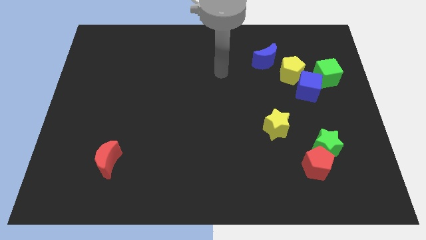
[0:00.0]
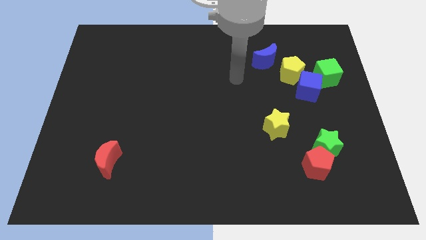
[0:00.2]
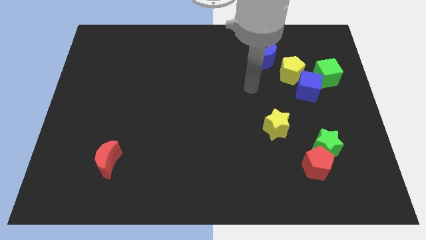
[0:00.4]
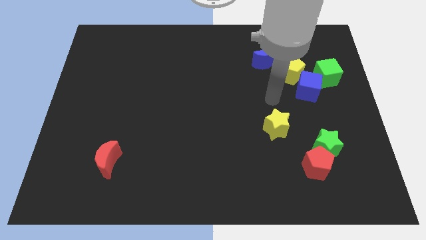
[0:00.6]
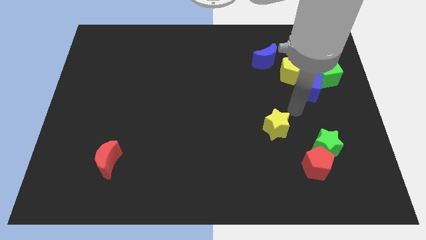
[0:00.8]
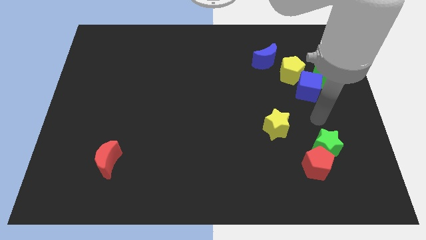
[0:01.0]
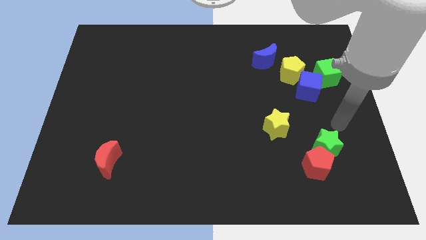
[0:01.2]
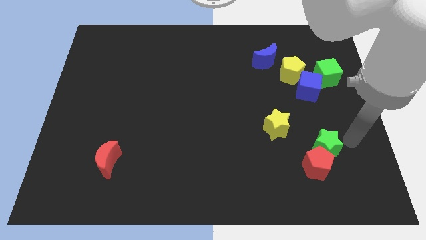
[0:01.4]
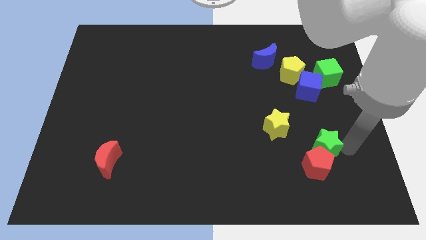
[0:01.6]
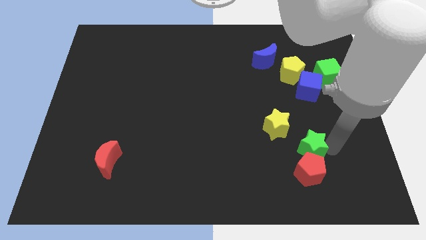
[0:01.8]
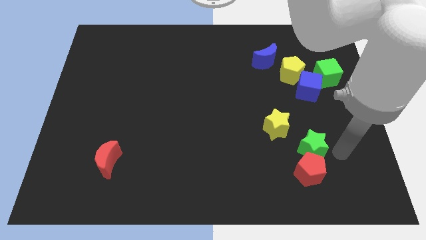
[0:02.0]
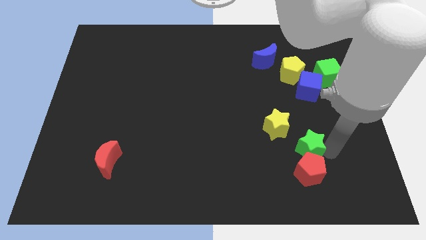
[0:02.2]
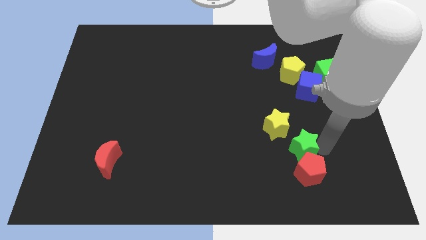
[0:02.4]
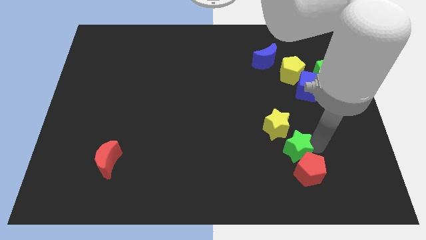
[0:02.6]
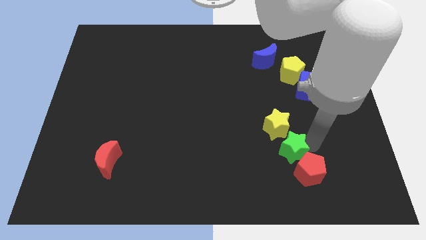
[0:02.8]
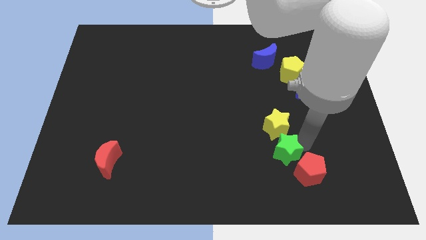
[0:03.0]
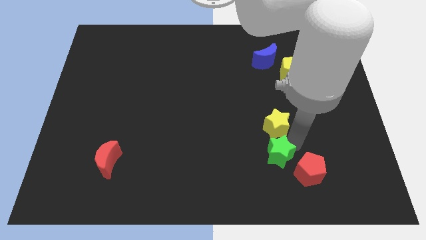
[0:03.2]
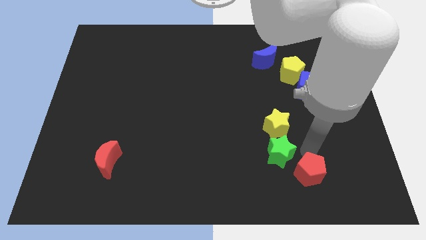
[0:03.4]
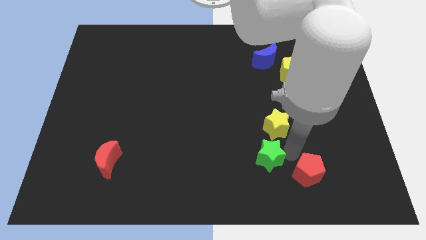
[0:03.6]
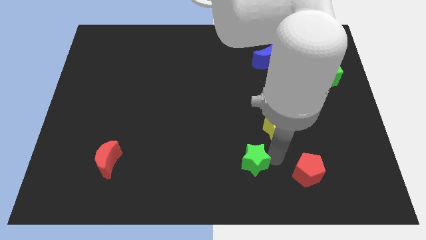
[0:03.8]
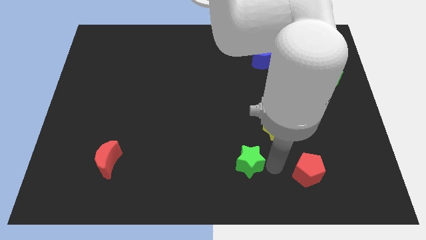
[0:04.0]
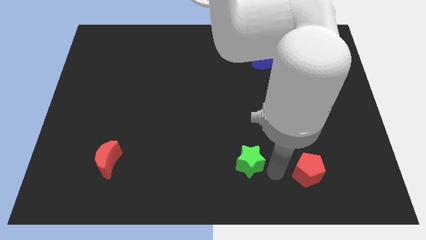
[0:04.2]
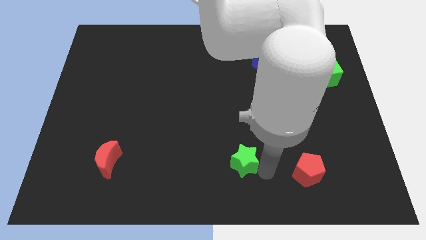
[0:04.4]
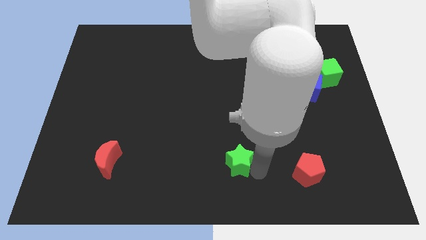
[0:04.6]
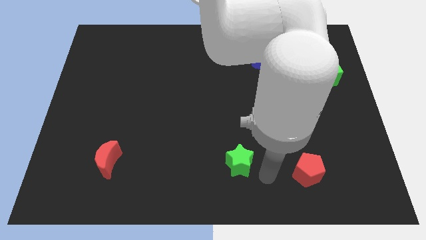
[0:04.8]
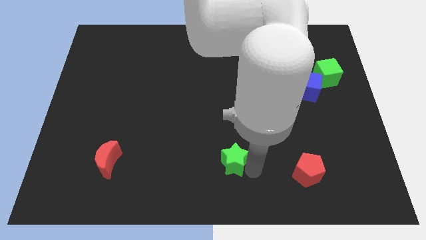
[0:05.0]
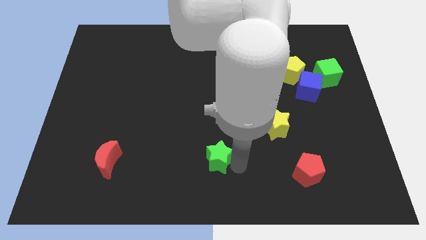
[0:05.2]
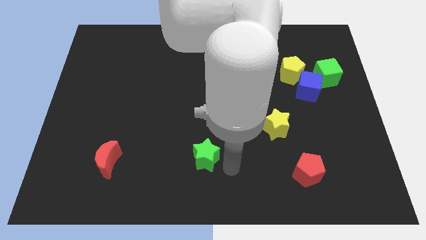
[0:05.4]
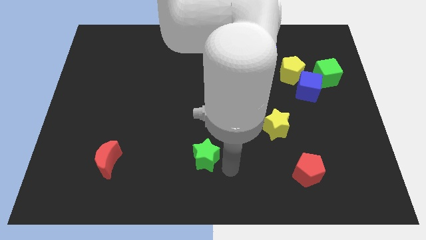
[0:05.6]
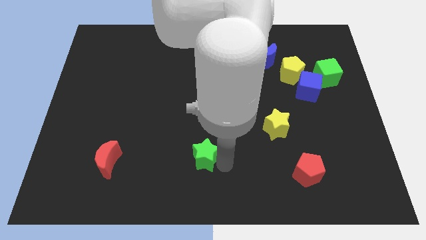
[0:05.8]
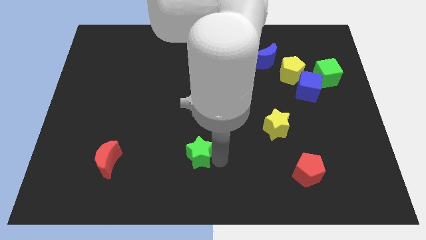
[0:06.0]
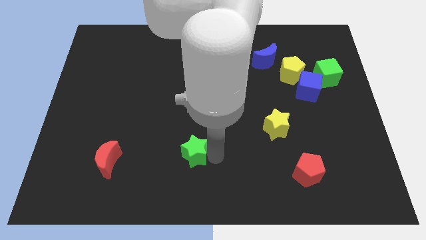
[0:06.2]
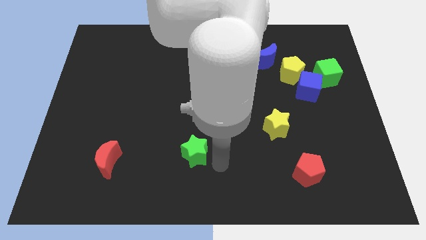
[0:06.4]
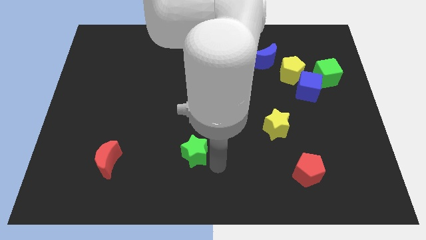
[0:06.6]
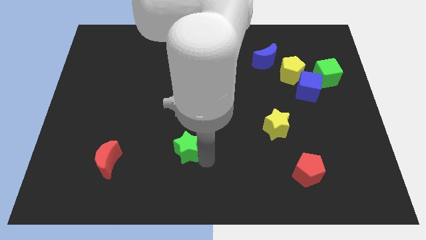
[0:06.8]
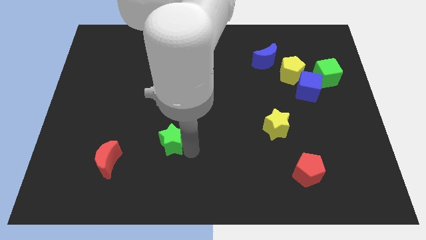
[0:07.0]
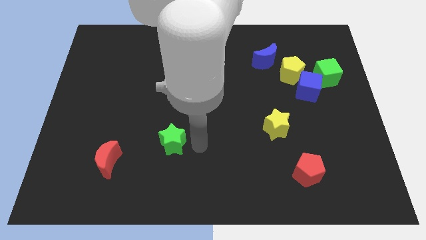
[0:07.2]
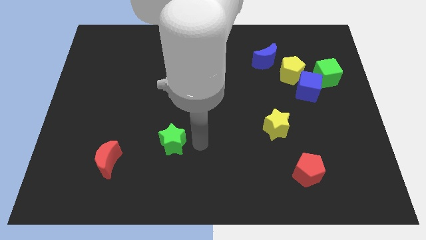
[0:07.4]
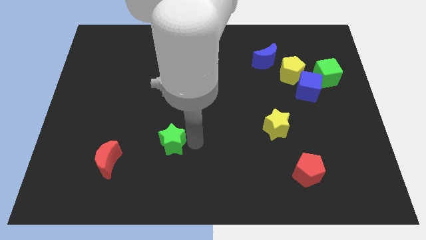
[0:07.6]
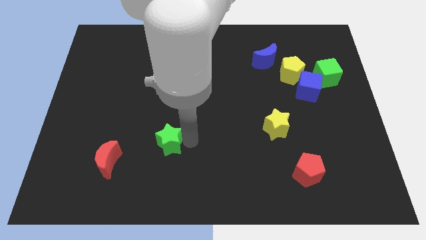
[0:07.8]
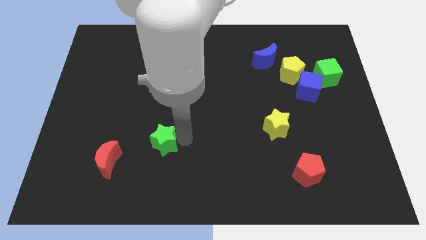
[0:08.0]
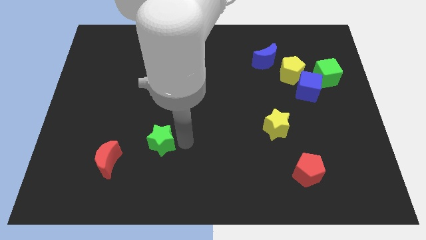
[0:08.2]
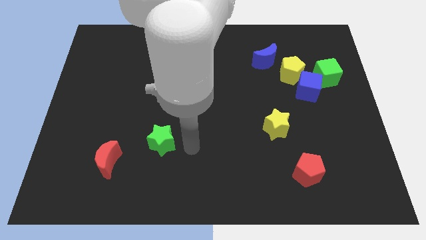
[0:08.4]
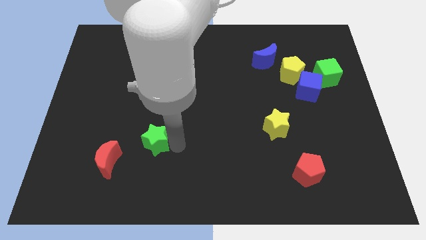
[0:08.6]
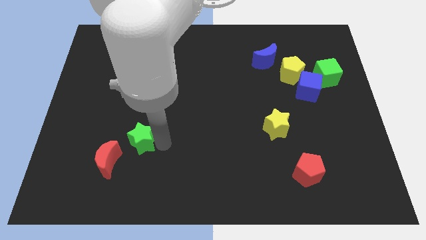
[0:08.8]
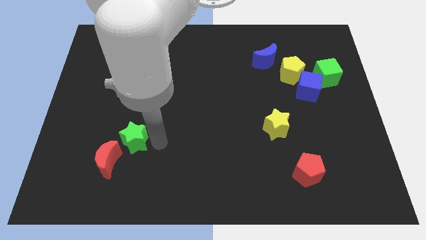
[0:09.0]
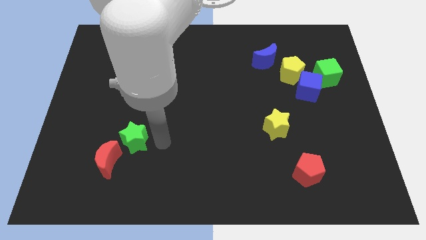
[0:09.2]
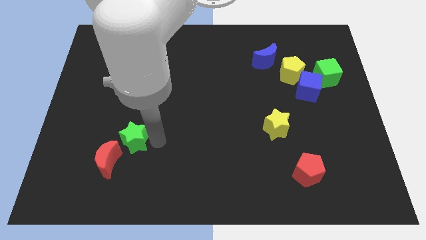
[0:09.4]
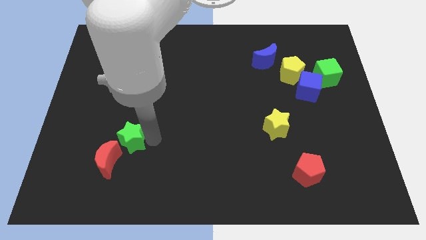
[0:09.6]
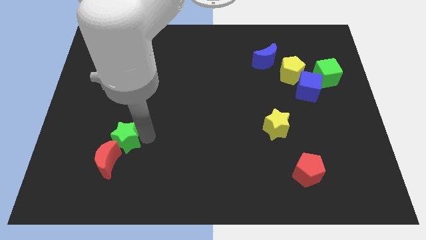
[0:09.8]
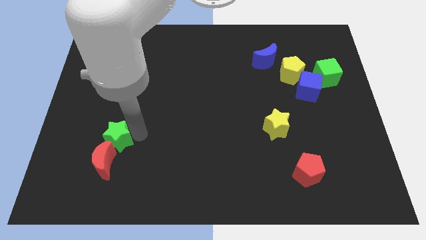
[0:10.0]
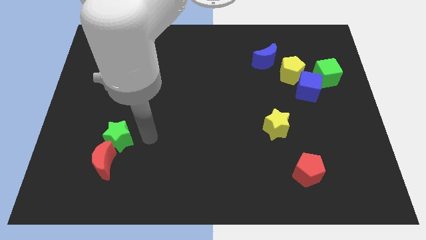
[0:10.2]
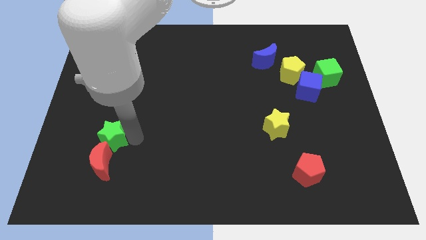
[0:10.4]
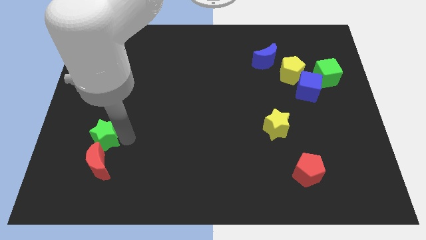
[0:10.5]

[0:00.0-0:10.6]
slide the green star to the top left of the red moon

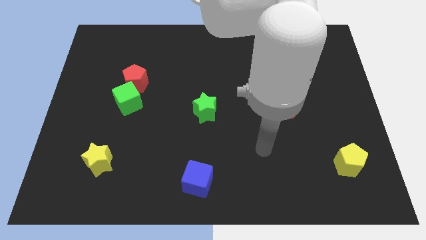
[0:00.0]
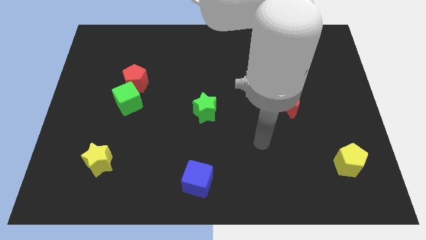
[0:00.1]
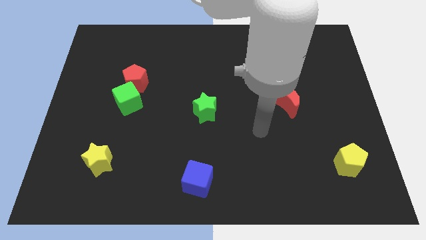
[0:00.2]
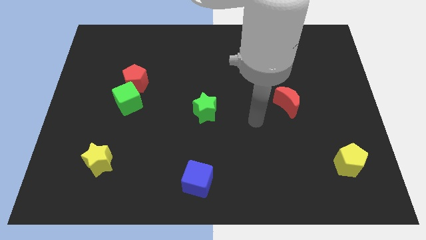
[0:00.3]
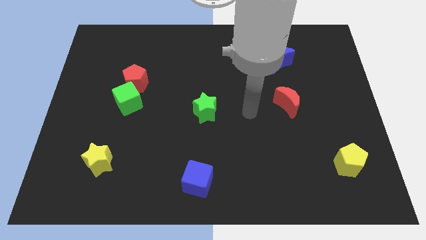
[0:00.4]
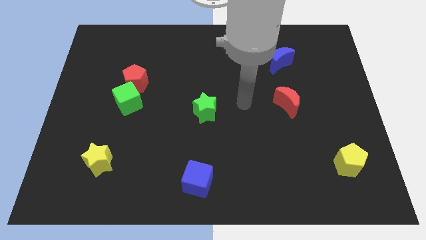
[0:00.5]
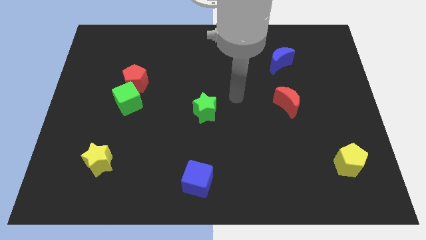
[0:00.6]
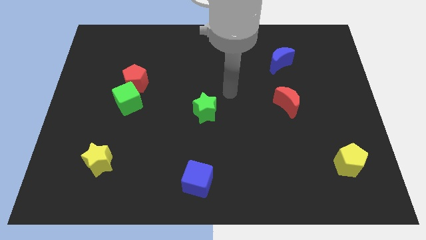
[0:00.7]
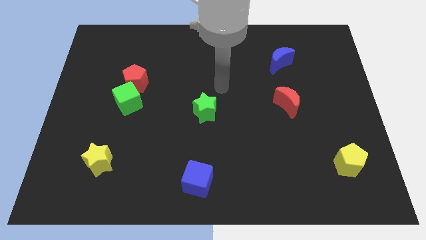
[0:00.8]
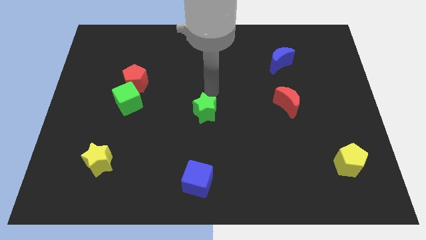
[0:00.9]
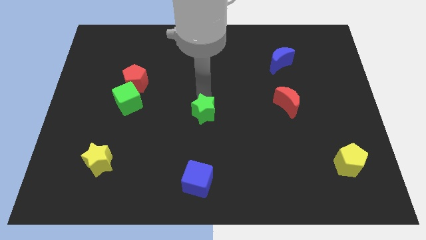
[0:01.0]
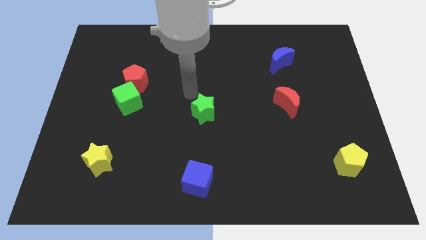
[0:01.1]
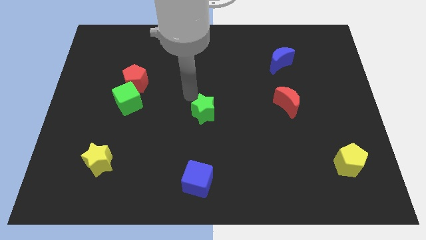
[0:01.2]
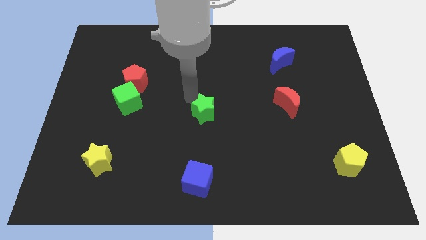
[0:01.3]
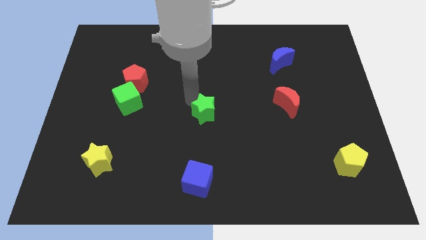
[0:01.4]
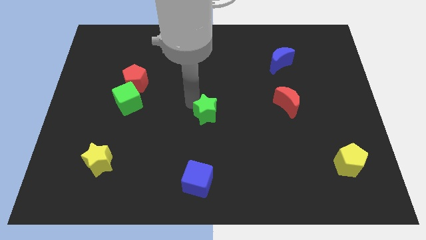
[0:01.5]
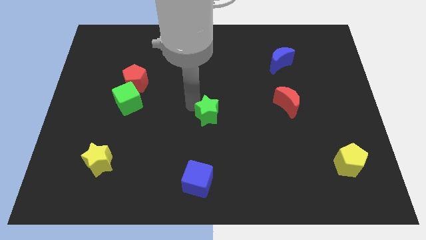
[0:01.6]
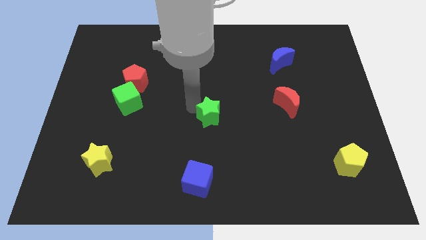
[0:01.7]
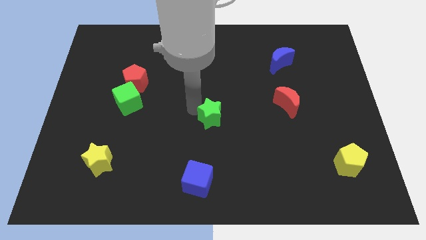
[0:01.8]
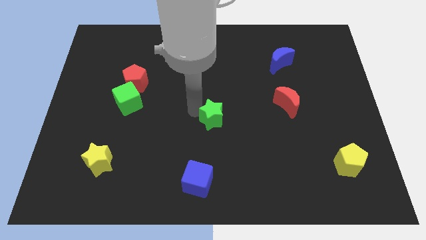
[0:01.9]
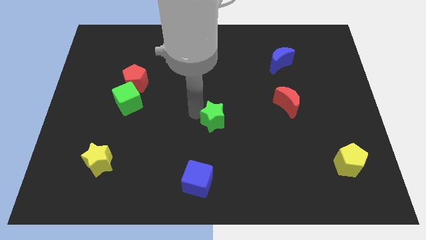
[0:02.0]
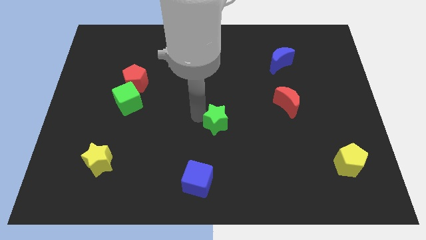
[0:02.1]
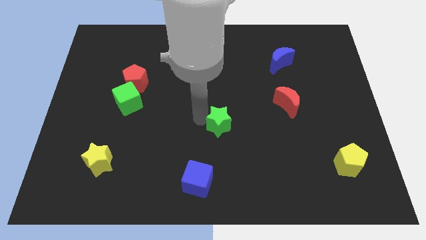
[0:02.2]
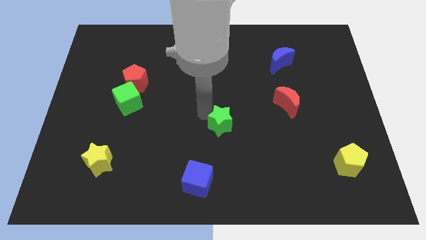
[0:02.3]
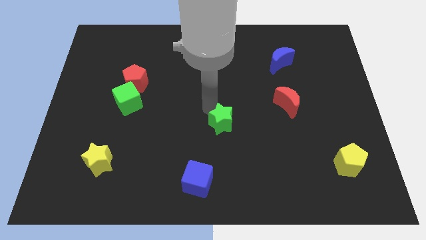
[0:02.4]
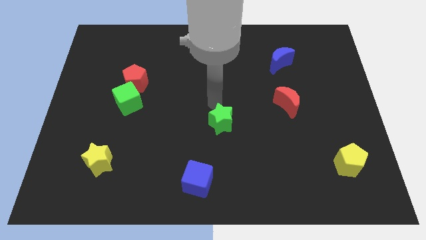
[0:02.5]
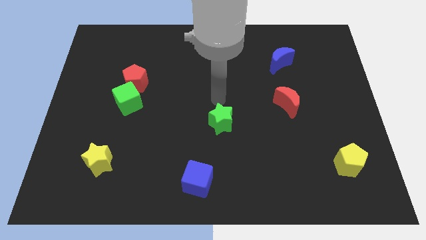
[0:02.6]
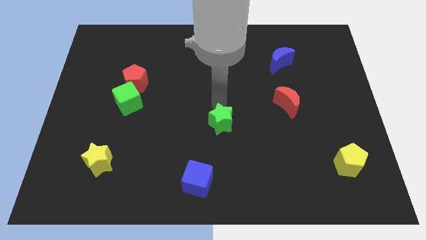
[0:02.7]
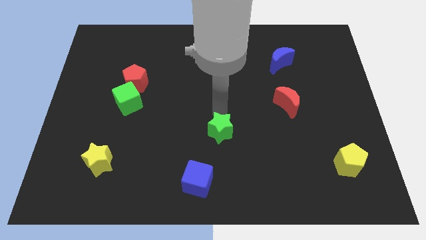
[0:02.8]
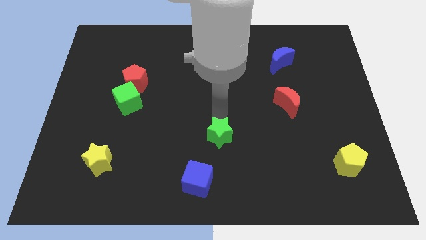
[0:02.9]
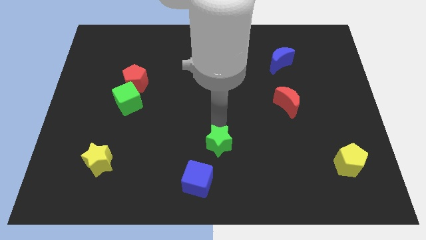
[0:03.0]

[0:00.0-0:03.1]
put the green star to the top right of the blue cube
